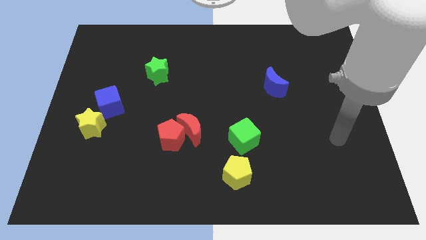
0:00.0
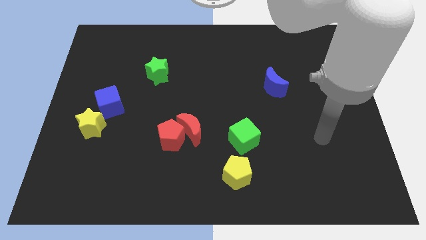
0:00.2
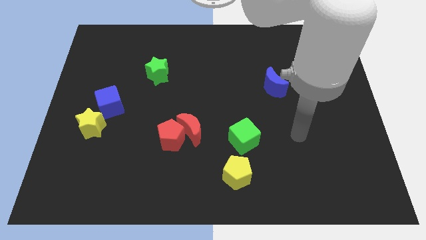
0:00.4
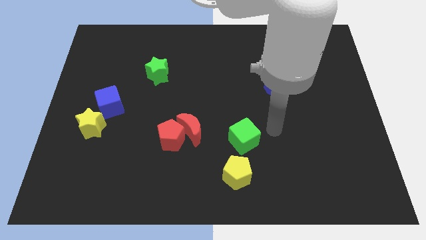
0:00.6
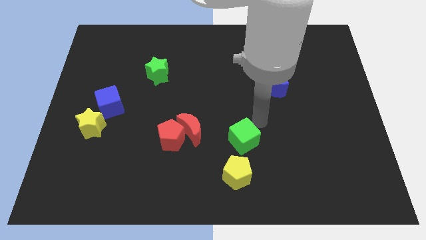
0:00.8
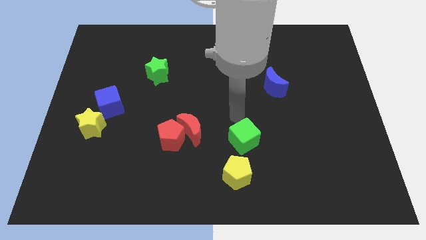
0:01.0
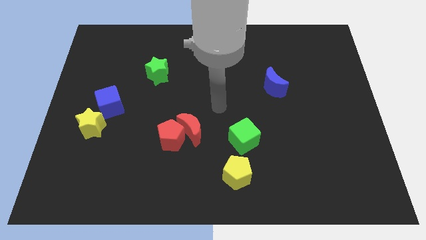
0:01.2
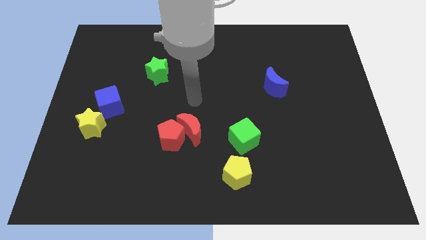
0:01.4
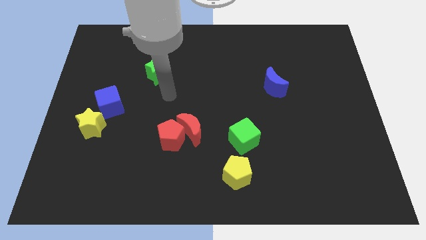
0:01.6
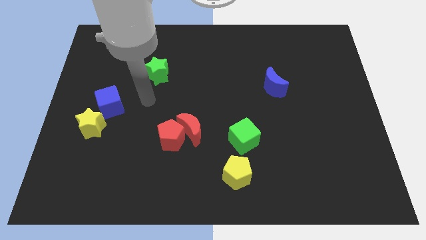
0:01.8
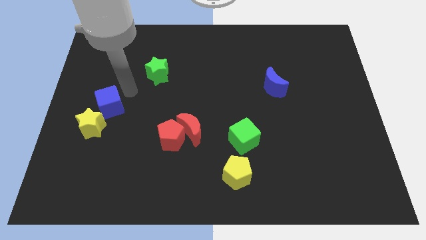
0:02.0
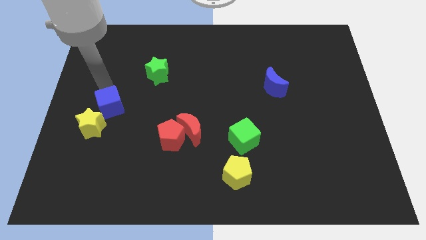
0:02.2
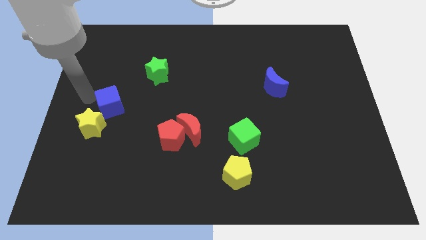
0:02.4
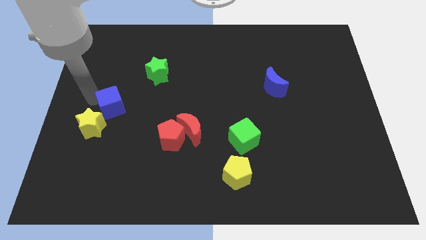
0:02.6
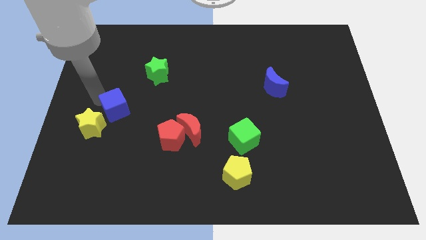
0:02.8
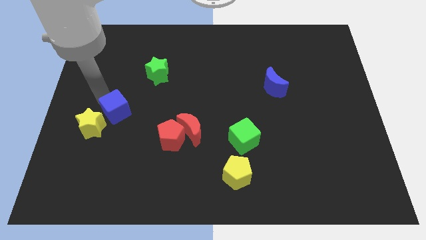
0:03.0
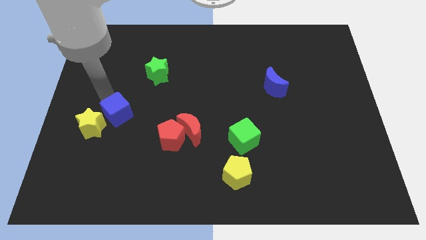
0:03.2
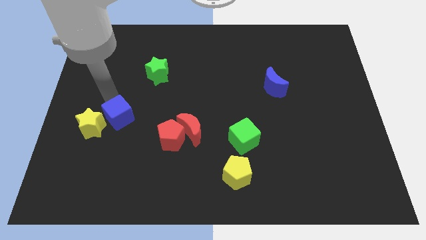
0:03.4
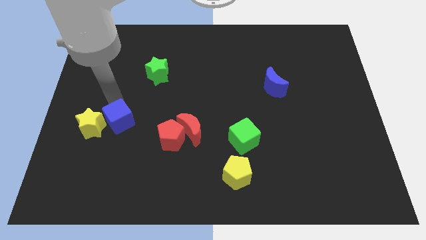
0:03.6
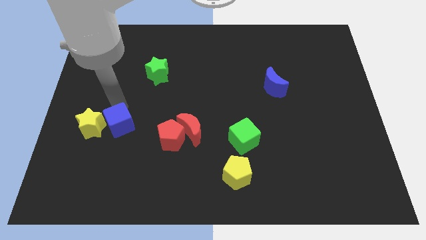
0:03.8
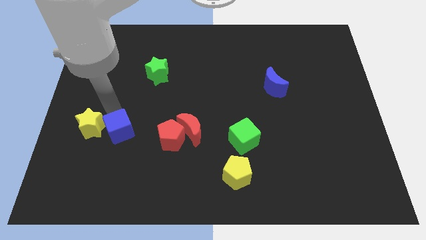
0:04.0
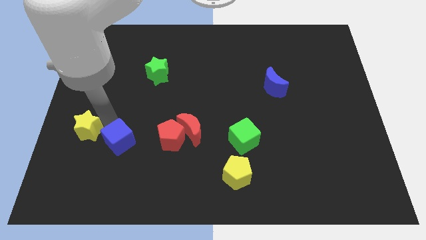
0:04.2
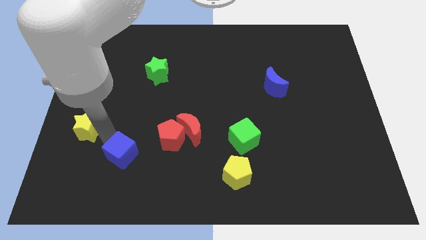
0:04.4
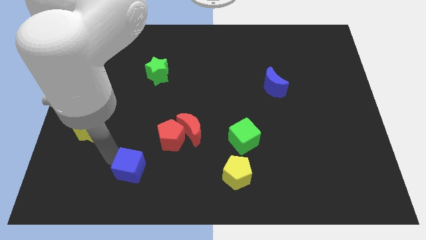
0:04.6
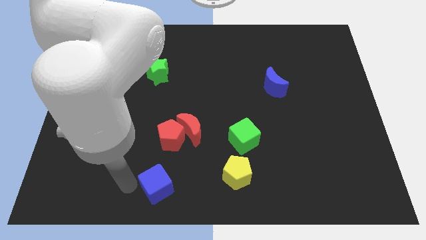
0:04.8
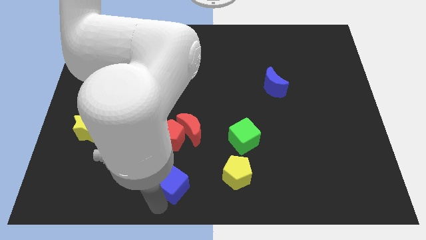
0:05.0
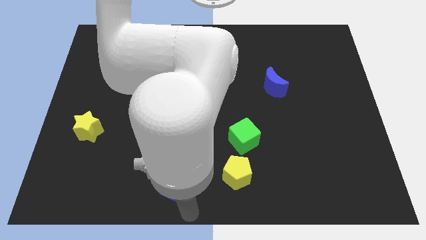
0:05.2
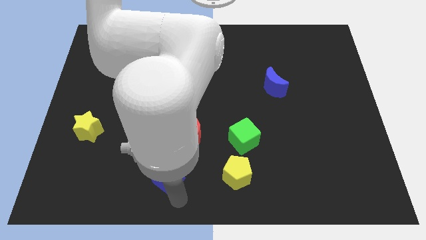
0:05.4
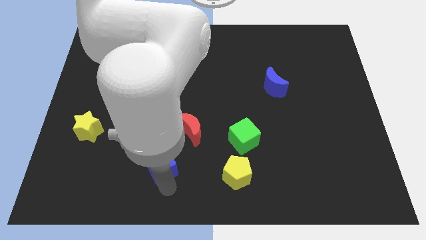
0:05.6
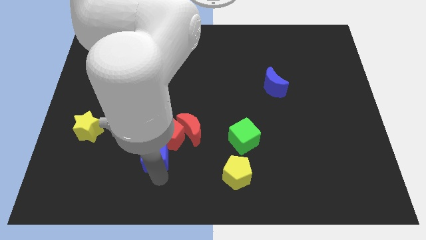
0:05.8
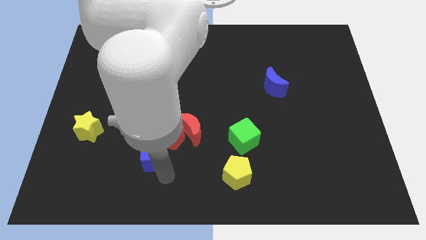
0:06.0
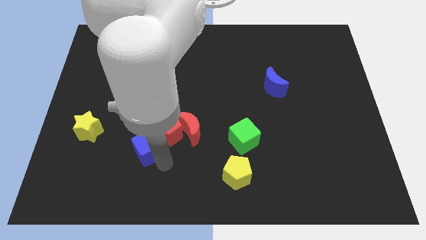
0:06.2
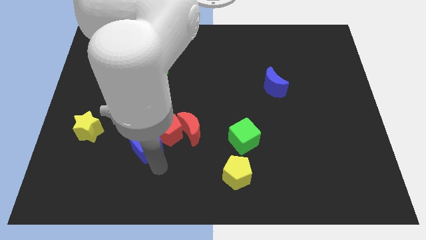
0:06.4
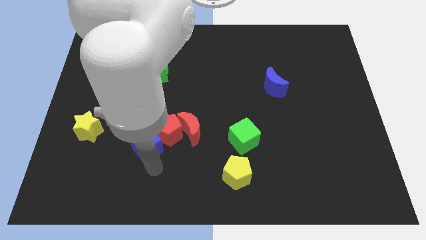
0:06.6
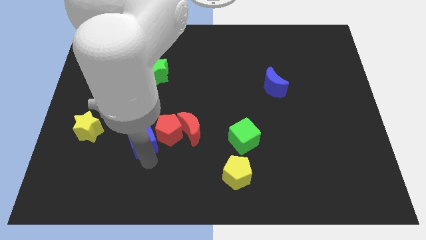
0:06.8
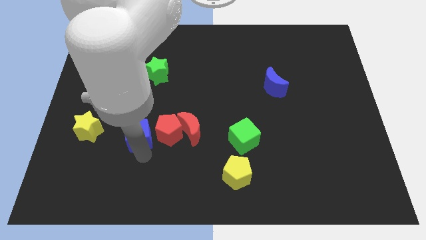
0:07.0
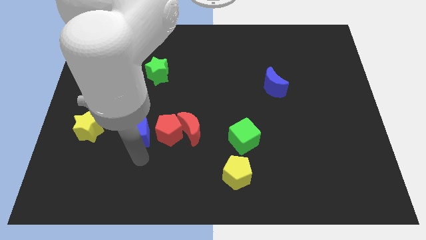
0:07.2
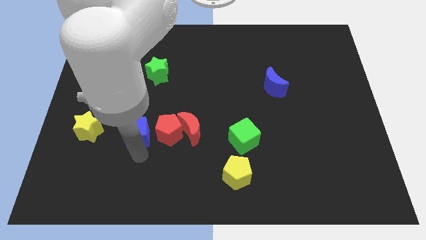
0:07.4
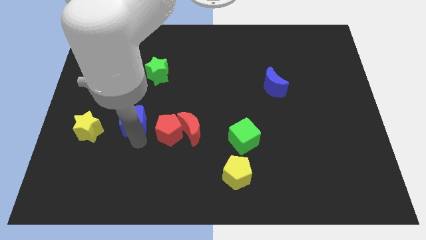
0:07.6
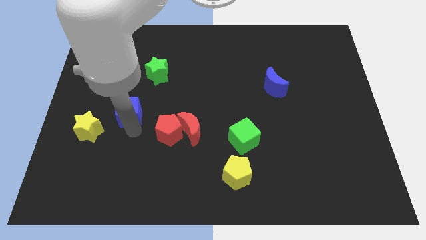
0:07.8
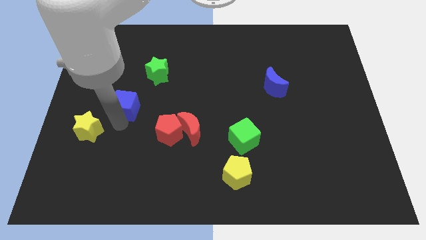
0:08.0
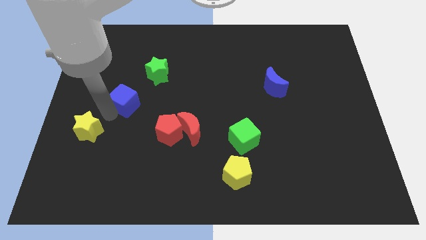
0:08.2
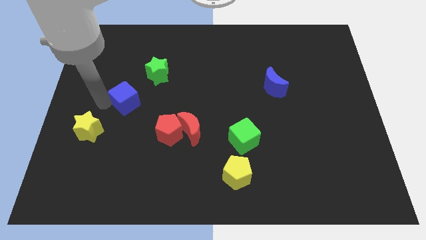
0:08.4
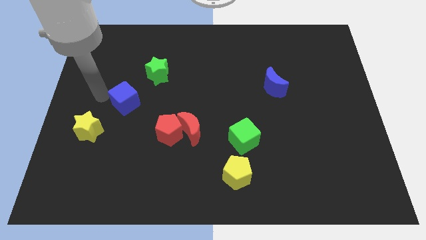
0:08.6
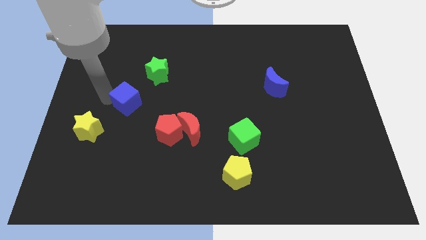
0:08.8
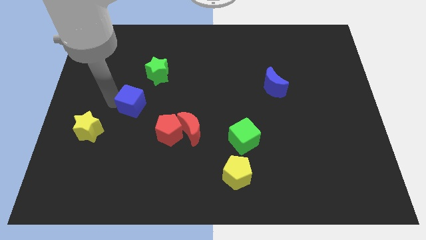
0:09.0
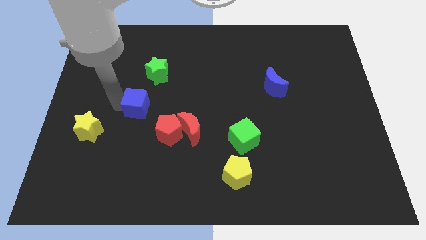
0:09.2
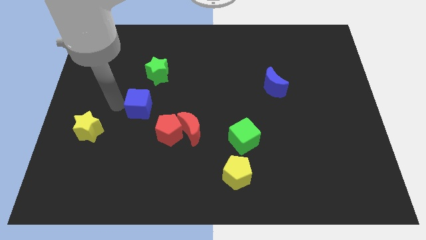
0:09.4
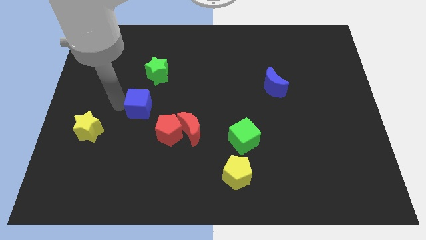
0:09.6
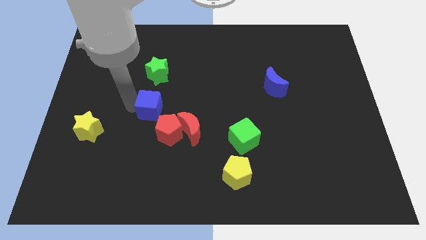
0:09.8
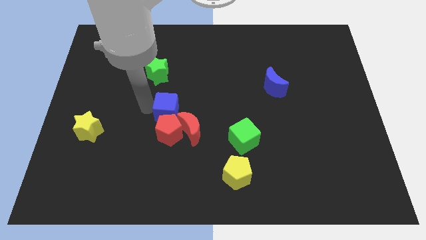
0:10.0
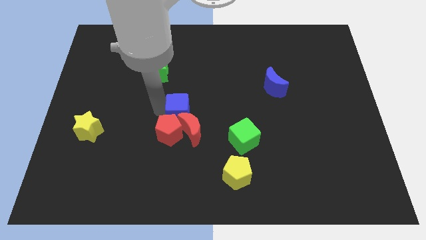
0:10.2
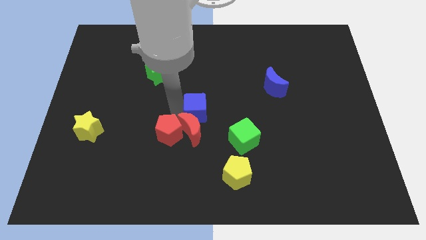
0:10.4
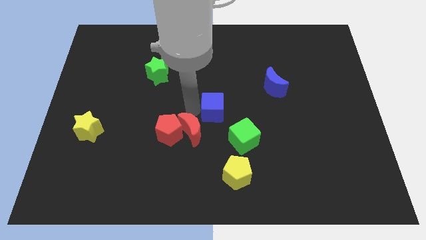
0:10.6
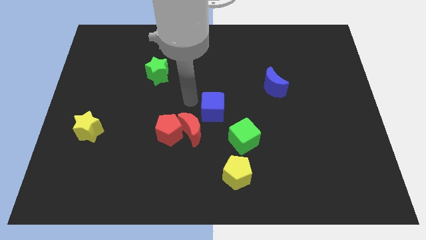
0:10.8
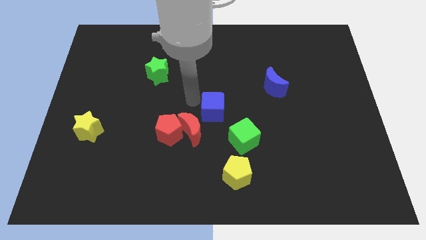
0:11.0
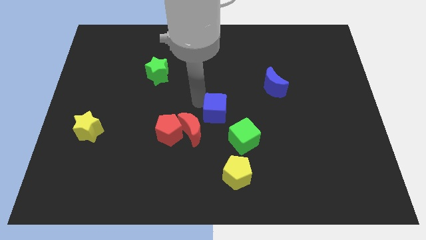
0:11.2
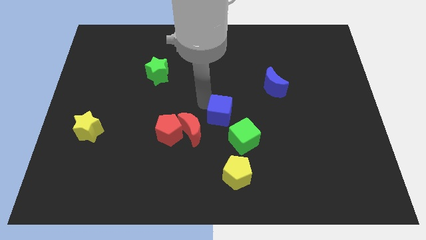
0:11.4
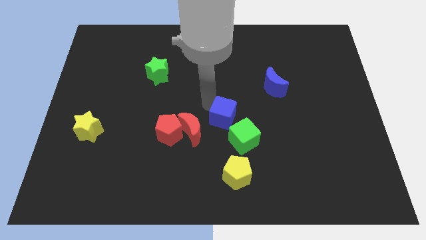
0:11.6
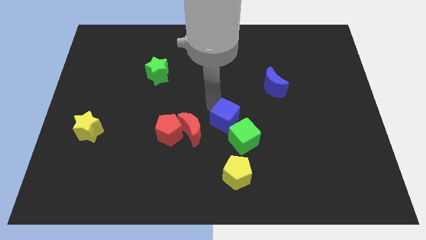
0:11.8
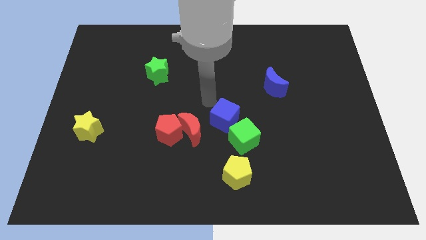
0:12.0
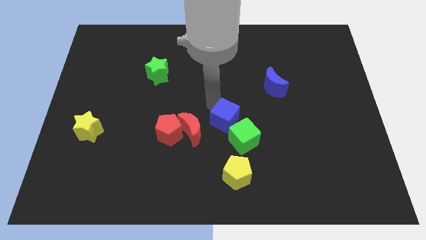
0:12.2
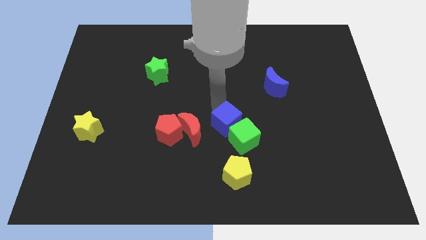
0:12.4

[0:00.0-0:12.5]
push the blue cube close to the green cube

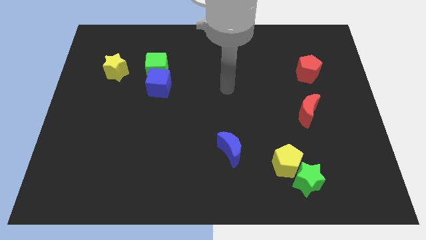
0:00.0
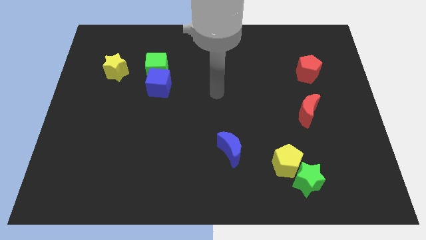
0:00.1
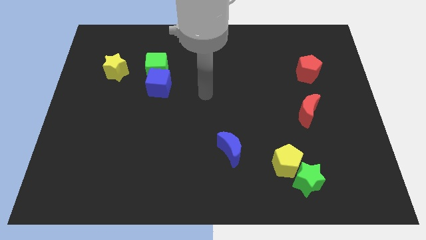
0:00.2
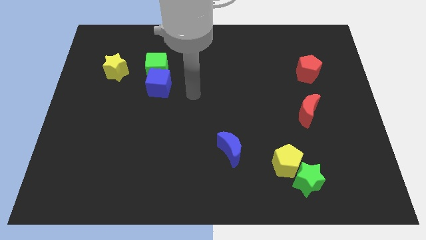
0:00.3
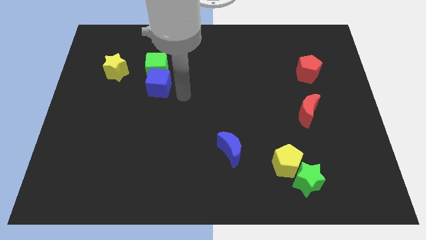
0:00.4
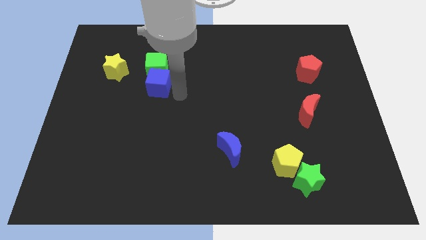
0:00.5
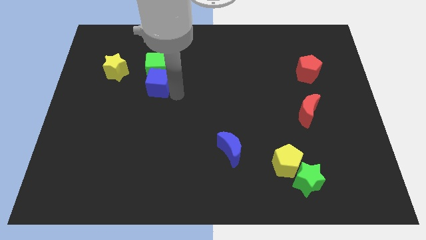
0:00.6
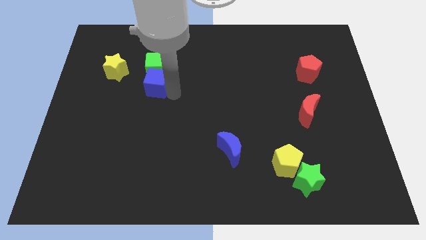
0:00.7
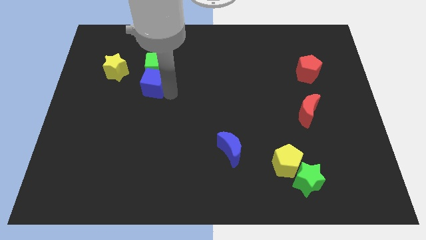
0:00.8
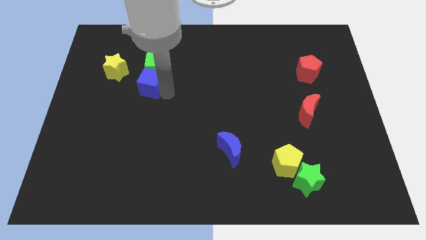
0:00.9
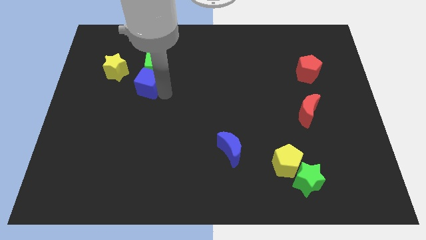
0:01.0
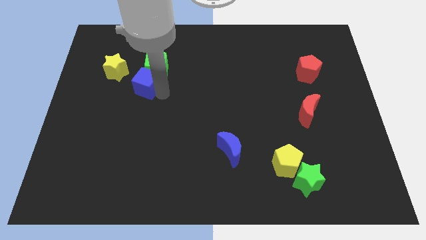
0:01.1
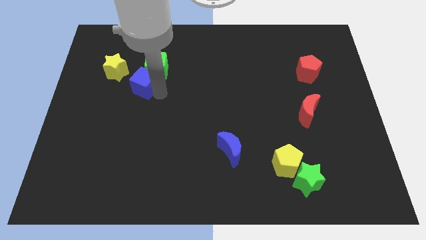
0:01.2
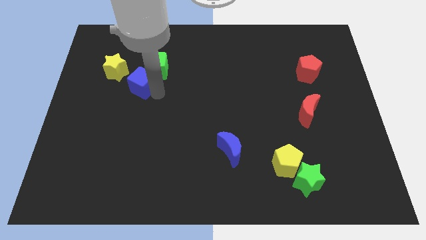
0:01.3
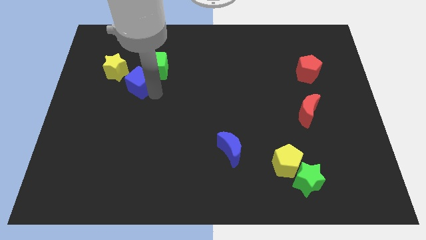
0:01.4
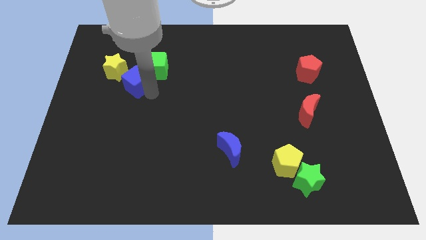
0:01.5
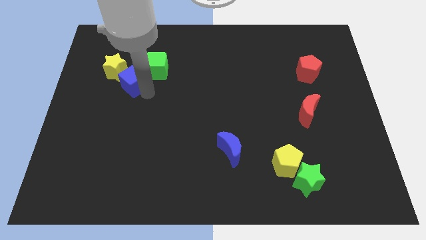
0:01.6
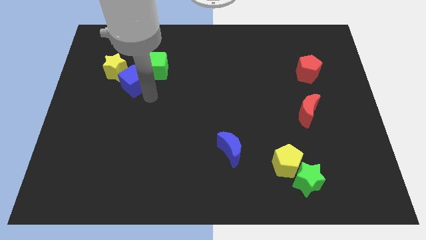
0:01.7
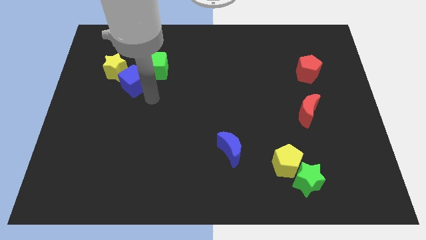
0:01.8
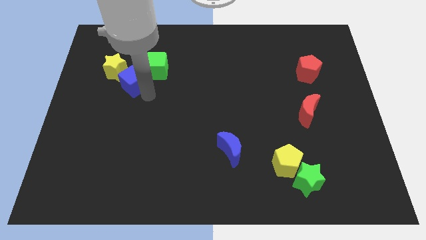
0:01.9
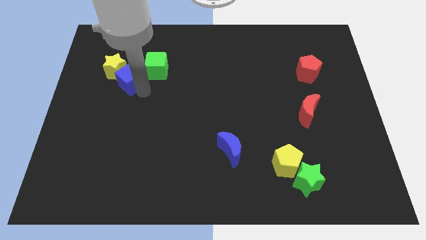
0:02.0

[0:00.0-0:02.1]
slide the blue cube close to the yellow star
